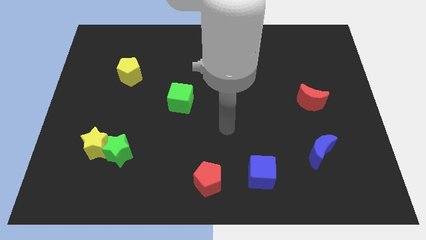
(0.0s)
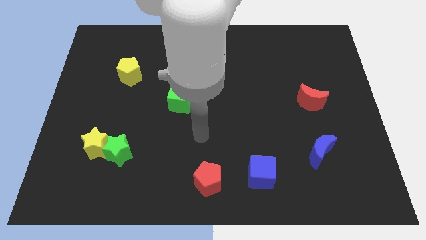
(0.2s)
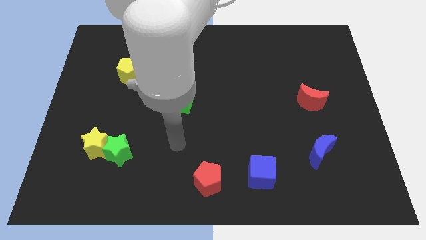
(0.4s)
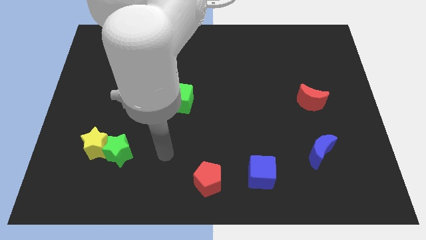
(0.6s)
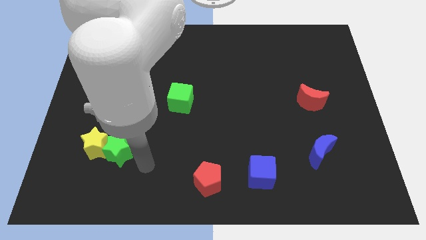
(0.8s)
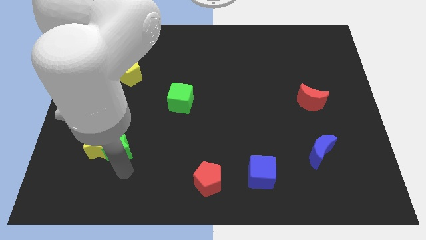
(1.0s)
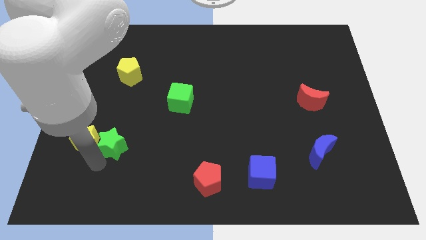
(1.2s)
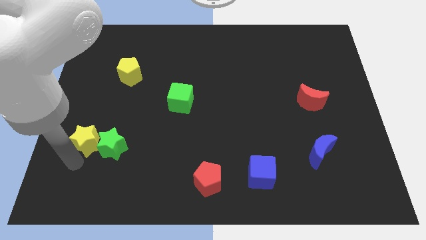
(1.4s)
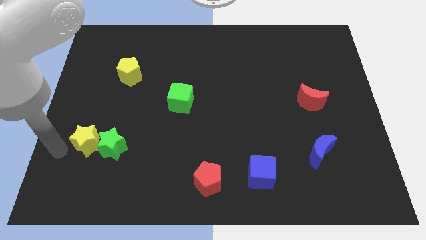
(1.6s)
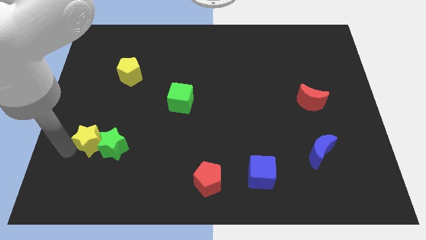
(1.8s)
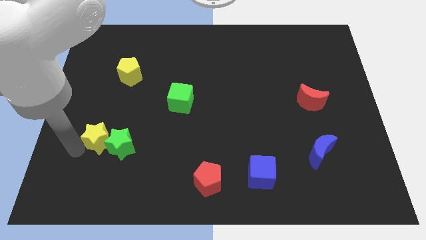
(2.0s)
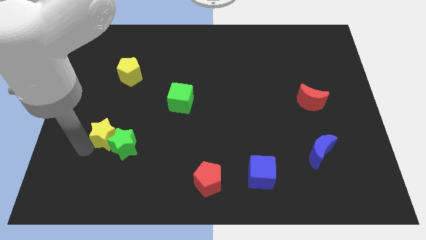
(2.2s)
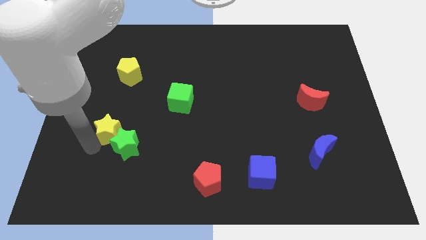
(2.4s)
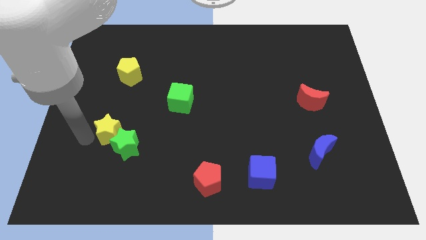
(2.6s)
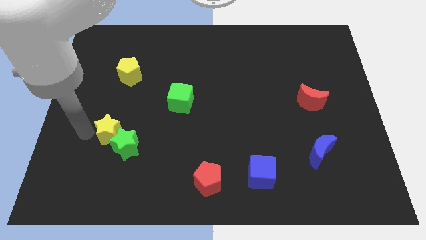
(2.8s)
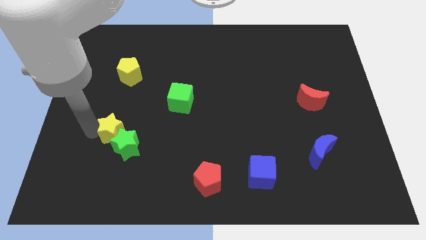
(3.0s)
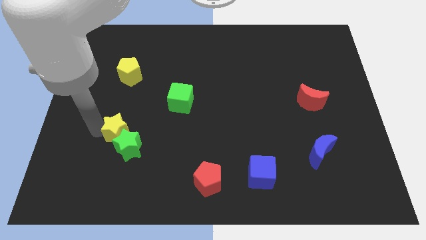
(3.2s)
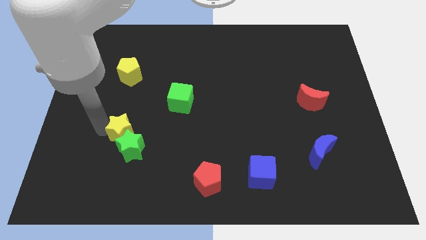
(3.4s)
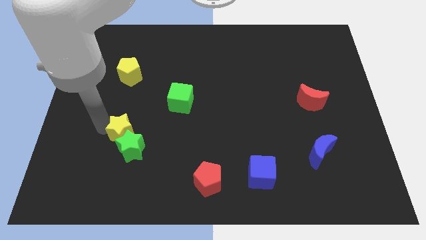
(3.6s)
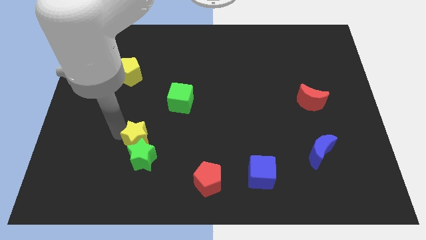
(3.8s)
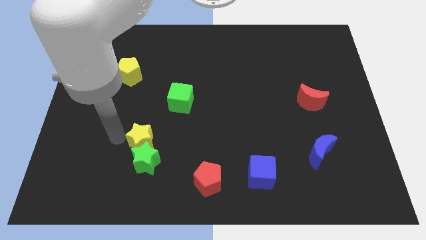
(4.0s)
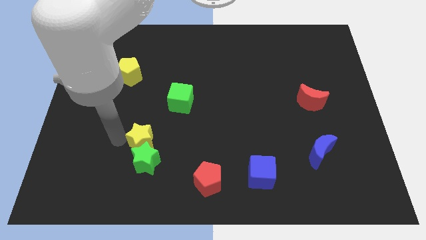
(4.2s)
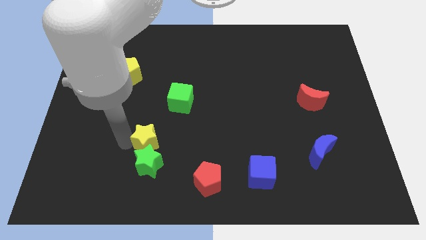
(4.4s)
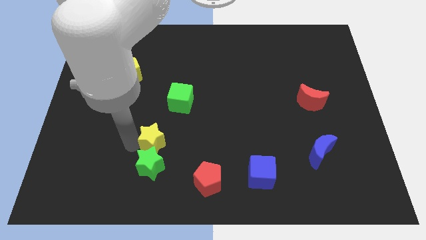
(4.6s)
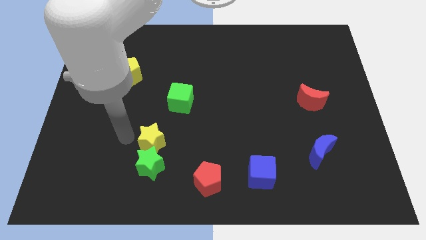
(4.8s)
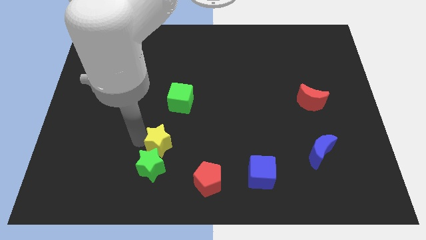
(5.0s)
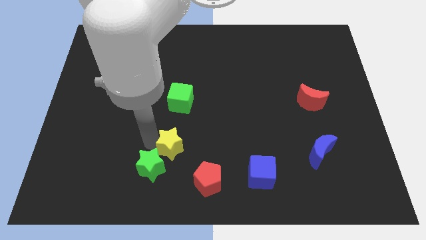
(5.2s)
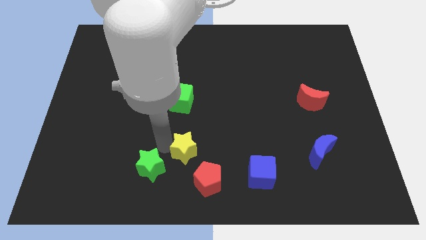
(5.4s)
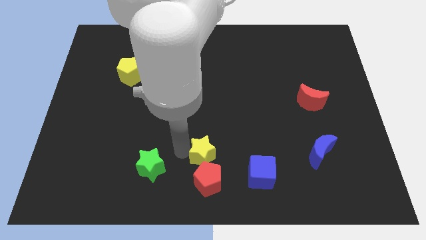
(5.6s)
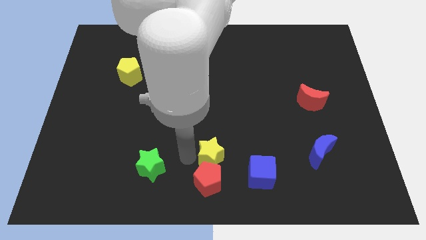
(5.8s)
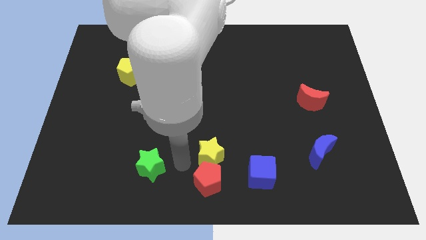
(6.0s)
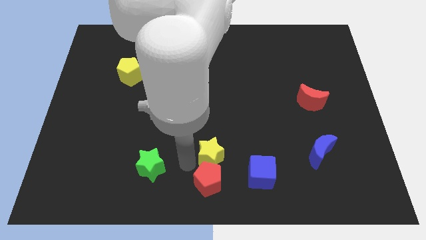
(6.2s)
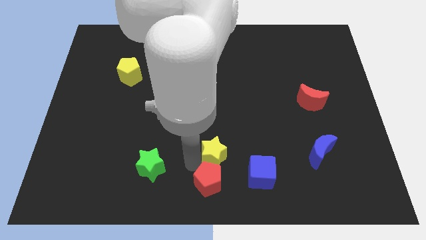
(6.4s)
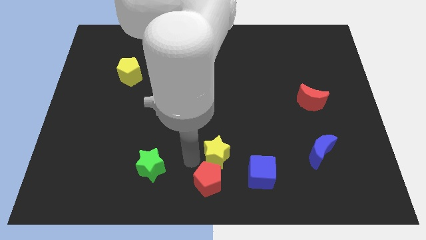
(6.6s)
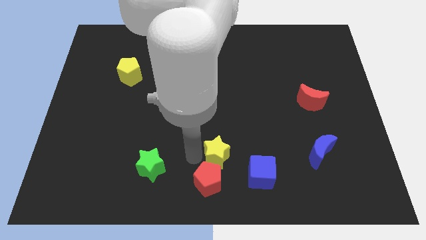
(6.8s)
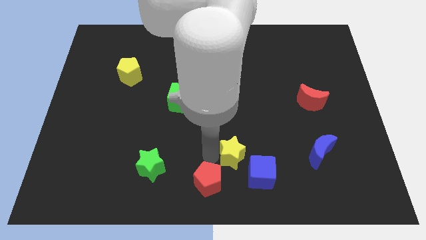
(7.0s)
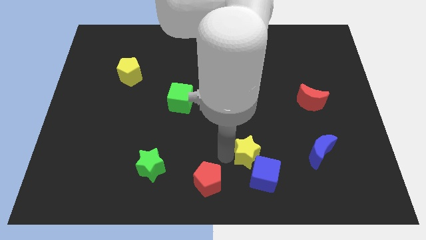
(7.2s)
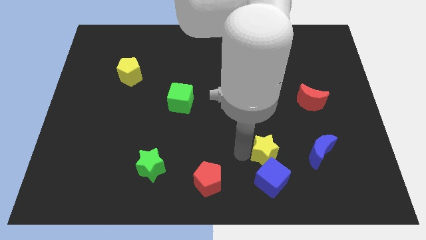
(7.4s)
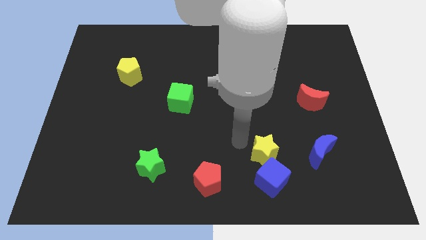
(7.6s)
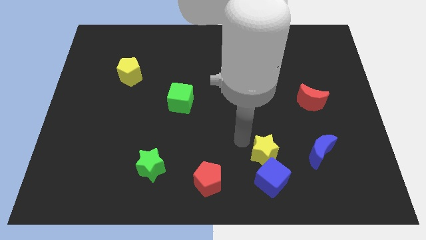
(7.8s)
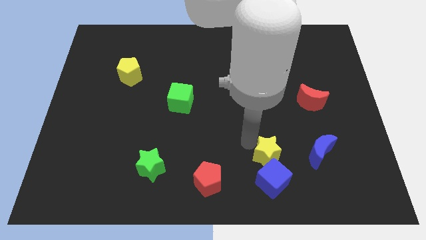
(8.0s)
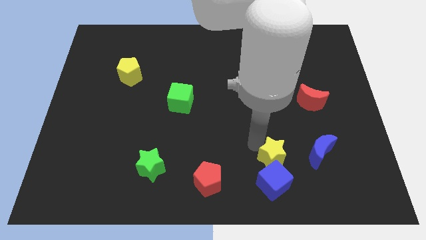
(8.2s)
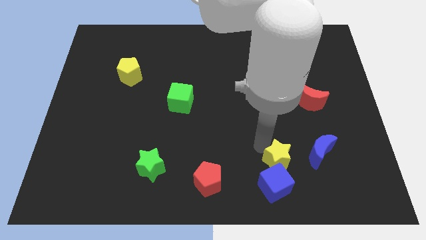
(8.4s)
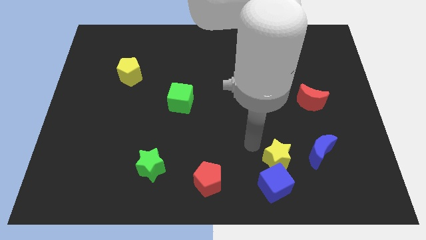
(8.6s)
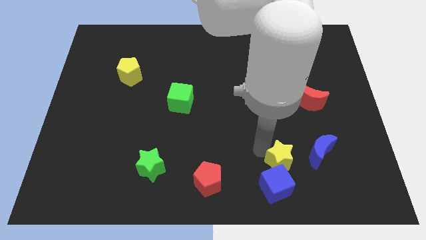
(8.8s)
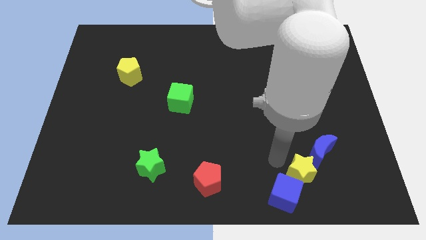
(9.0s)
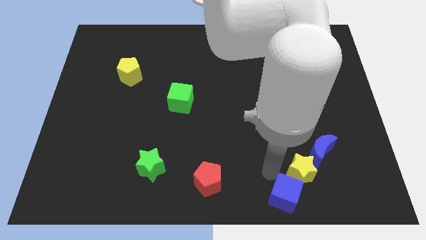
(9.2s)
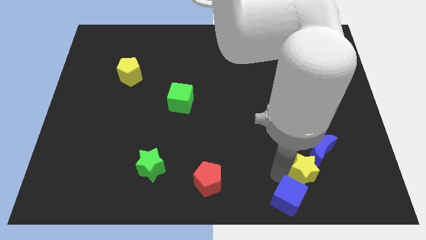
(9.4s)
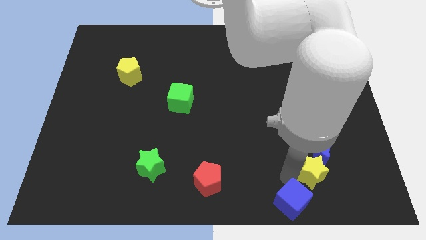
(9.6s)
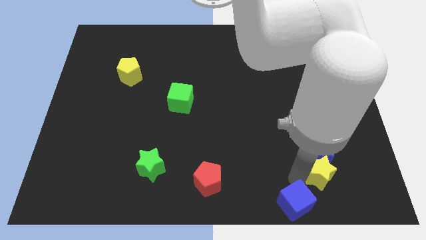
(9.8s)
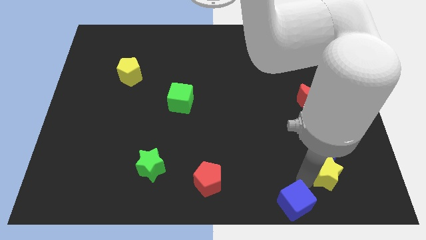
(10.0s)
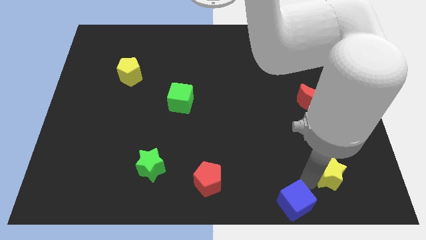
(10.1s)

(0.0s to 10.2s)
push the yellow star to the bottom right of the blue moon

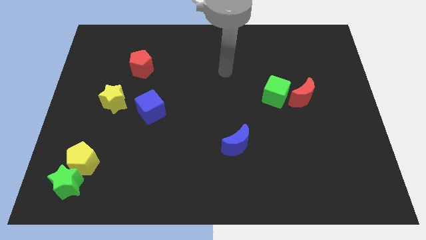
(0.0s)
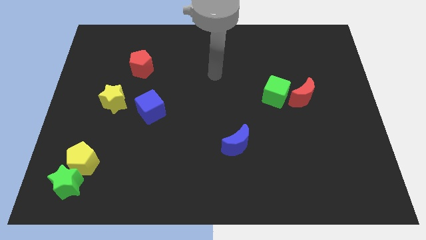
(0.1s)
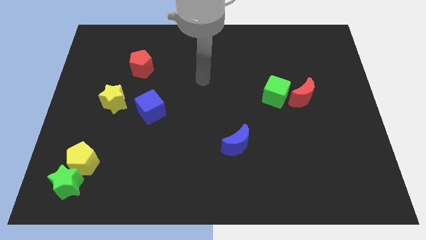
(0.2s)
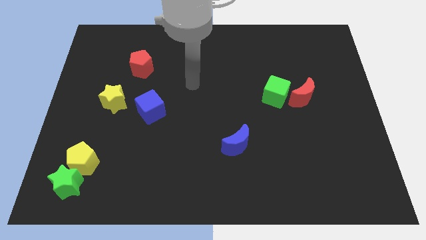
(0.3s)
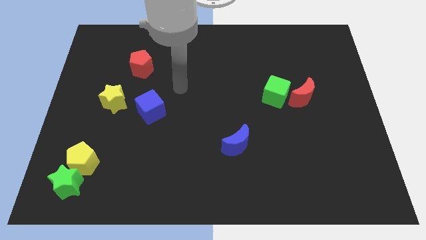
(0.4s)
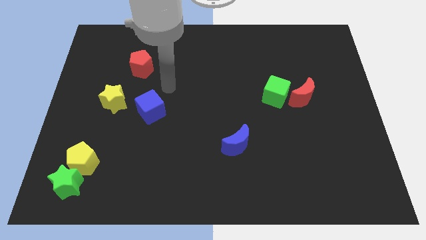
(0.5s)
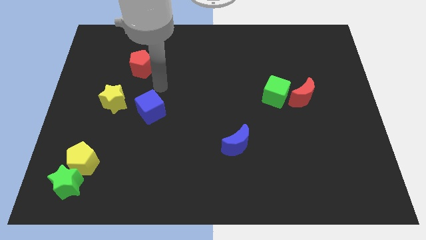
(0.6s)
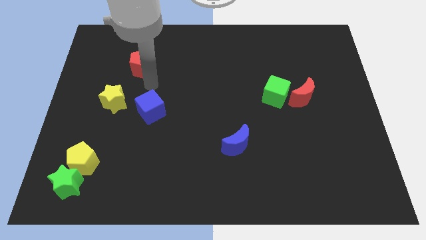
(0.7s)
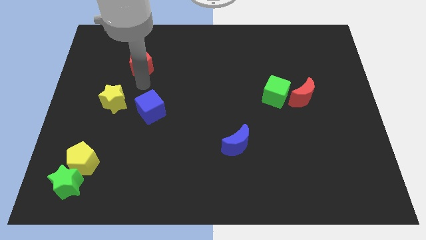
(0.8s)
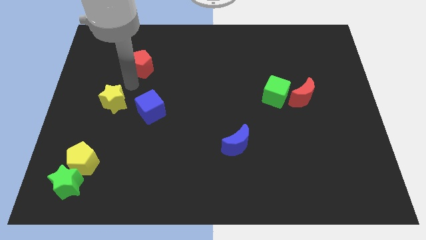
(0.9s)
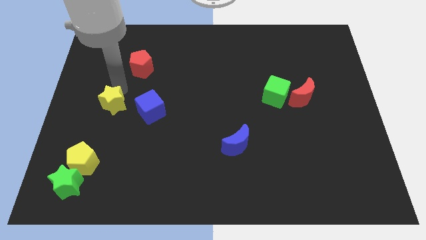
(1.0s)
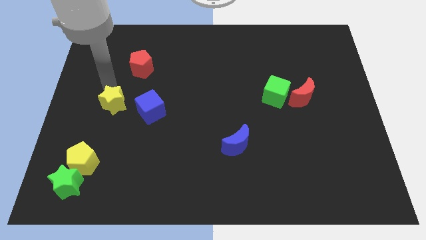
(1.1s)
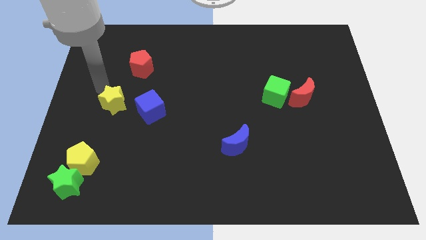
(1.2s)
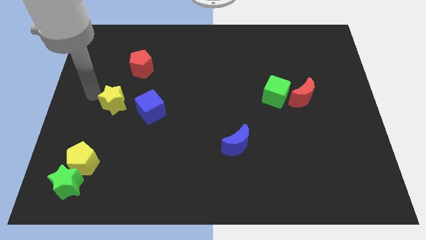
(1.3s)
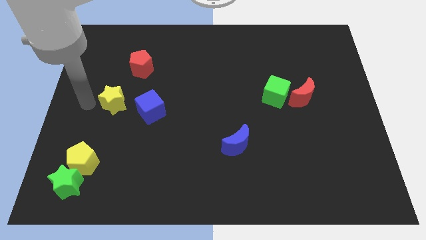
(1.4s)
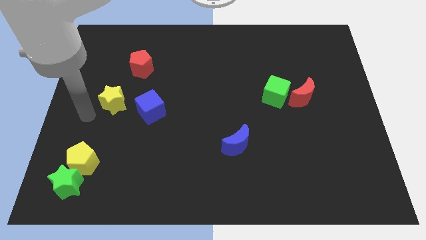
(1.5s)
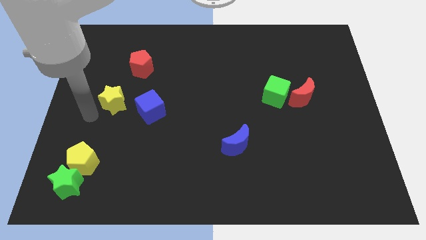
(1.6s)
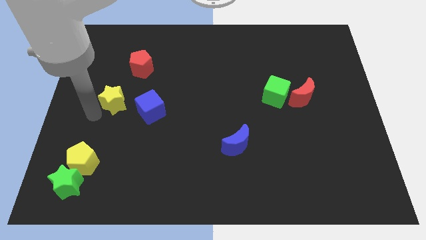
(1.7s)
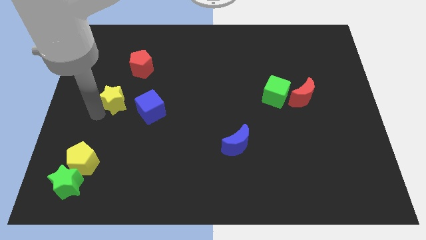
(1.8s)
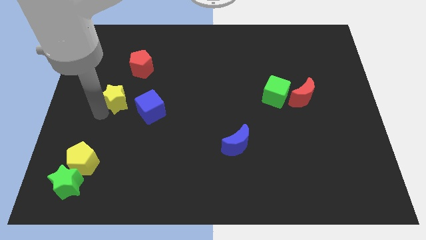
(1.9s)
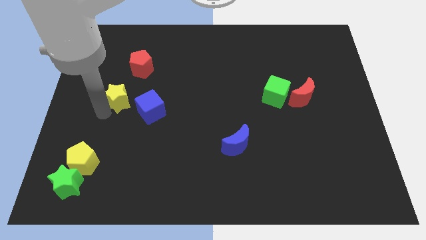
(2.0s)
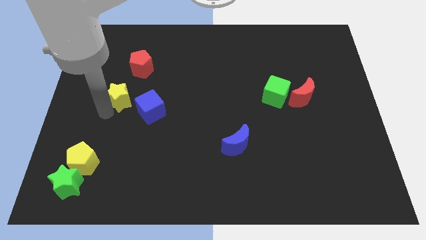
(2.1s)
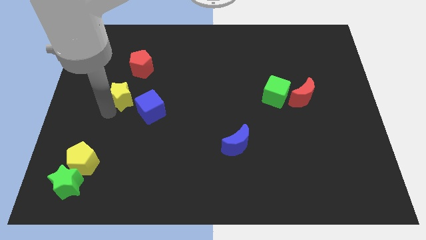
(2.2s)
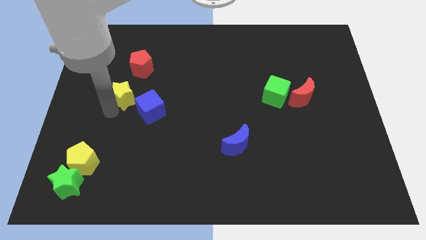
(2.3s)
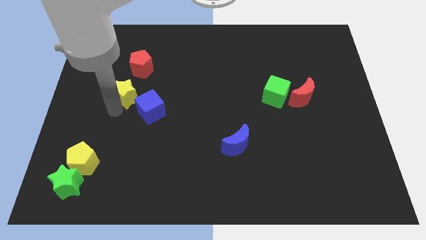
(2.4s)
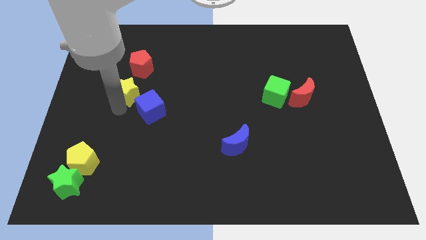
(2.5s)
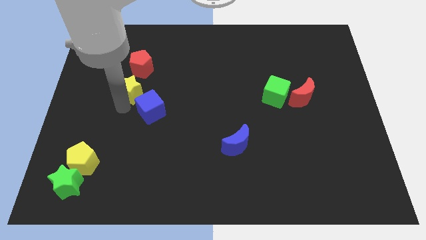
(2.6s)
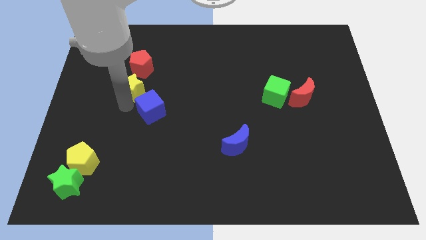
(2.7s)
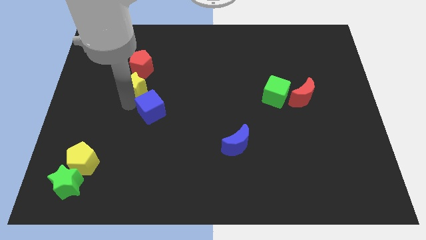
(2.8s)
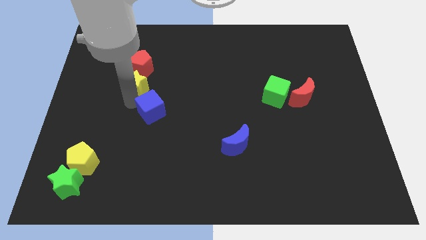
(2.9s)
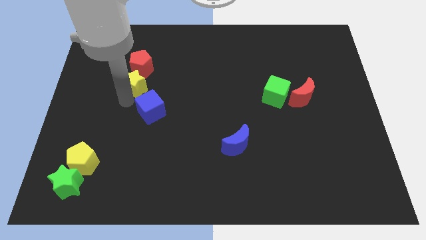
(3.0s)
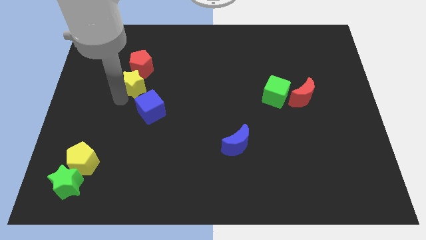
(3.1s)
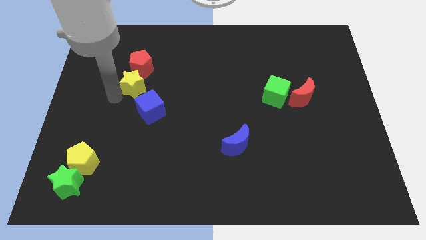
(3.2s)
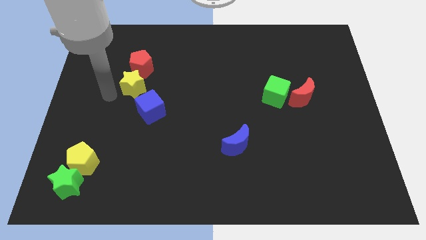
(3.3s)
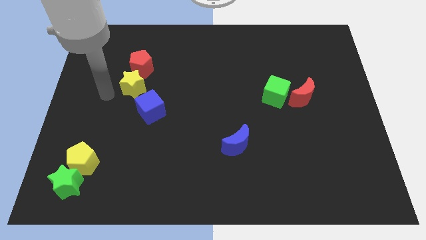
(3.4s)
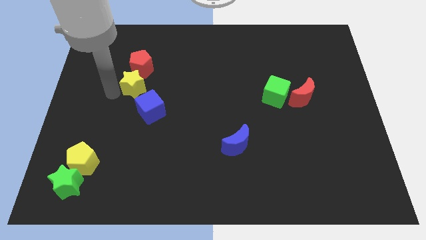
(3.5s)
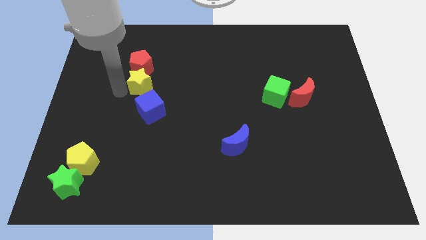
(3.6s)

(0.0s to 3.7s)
push the yellow star diagonally down and to the right of the red pentagon
